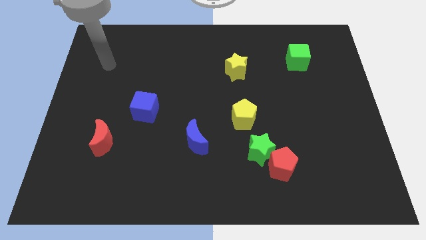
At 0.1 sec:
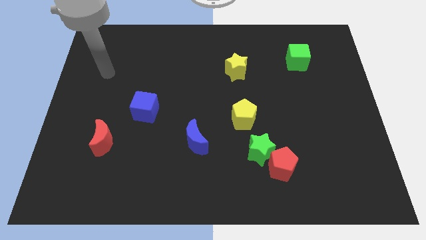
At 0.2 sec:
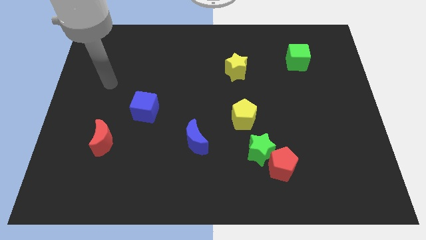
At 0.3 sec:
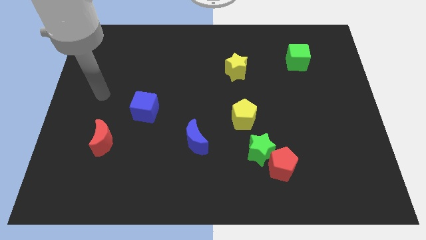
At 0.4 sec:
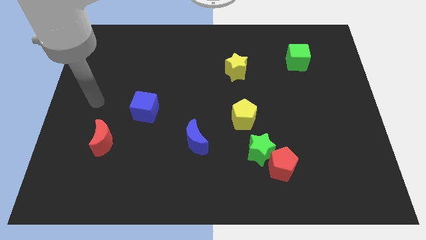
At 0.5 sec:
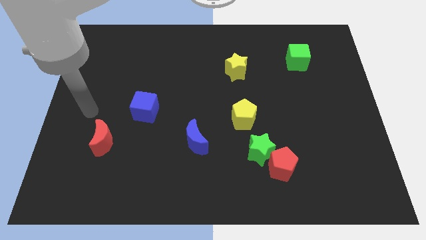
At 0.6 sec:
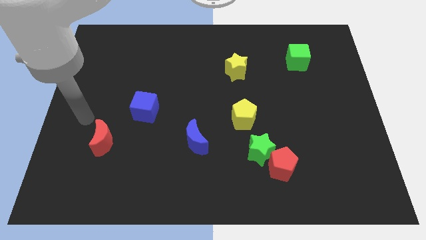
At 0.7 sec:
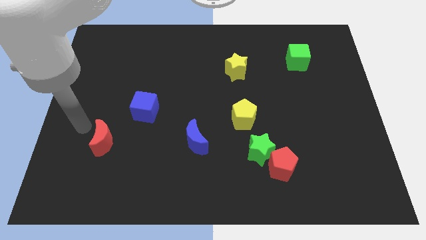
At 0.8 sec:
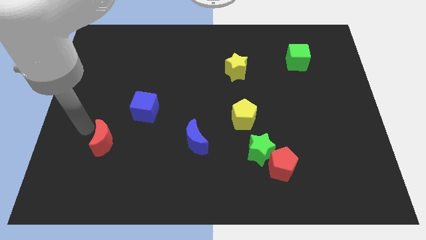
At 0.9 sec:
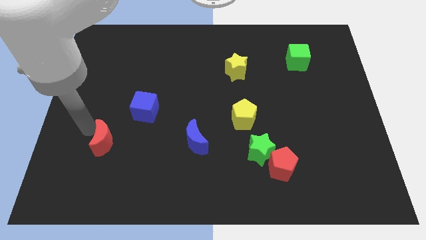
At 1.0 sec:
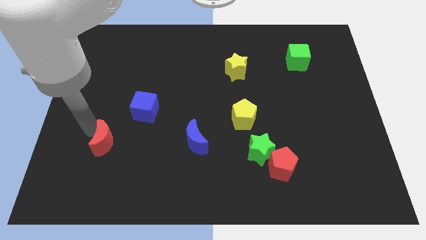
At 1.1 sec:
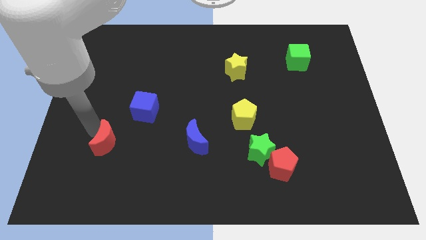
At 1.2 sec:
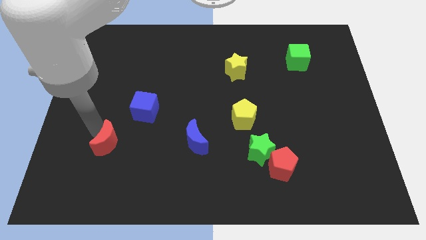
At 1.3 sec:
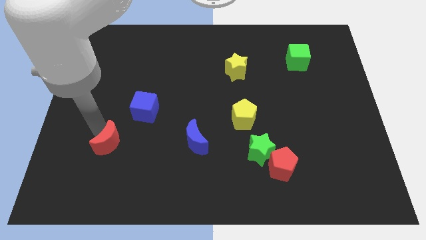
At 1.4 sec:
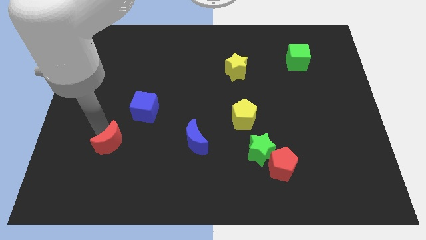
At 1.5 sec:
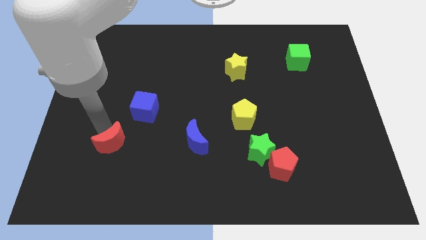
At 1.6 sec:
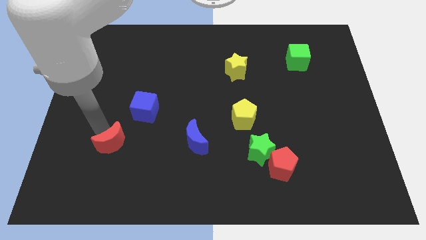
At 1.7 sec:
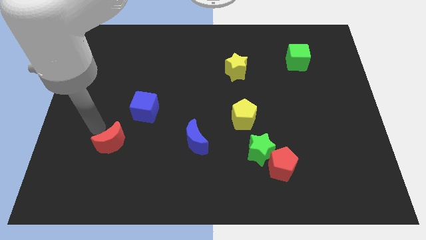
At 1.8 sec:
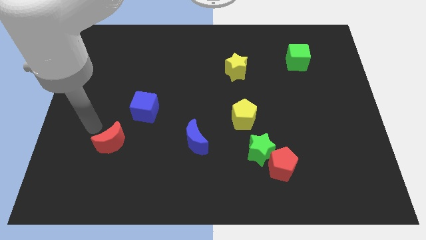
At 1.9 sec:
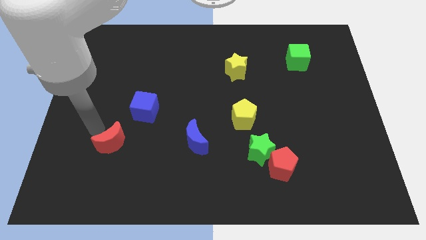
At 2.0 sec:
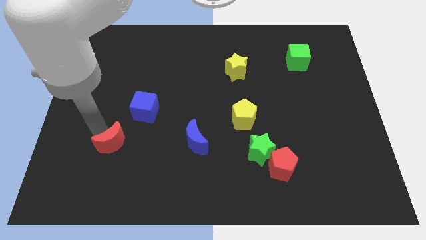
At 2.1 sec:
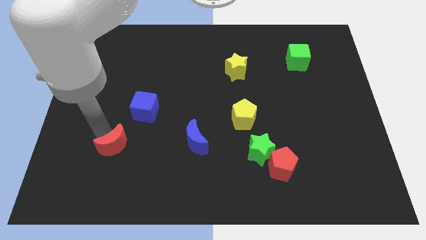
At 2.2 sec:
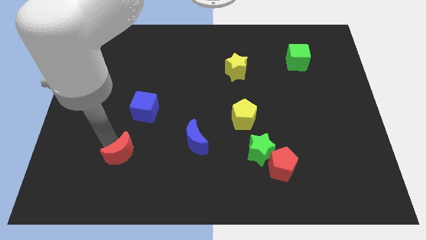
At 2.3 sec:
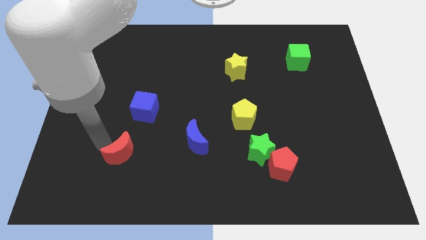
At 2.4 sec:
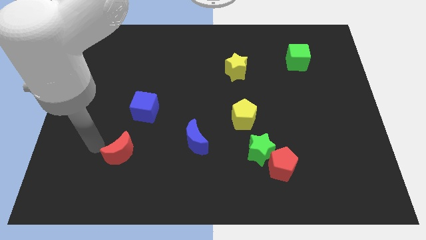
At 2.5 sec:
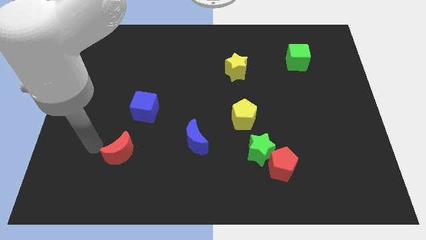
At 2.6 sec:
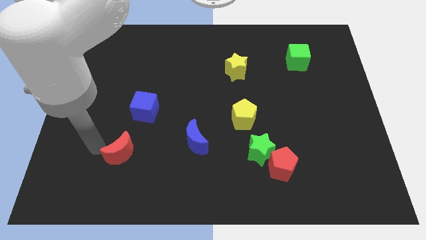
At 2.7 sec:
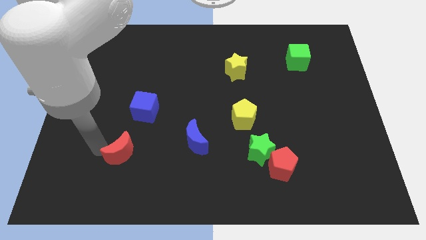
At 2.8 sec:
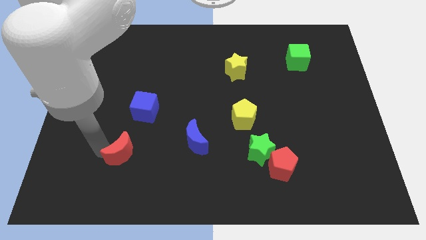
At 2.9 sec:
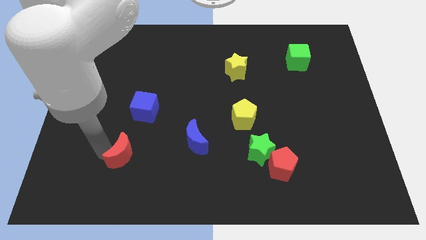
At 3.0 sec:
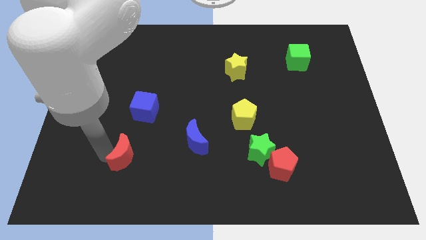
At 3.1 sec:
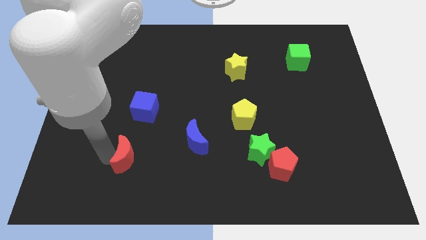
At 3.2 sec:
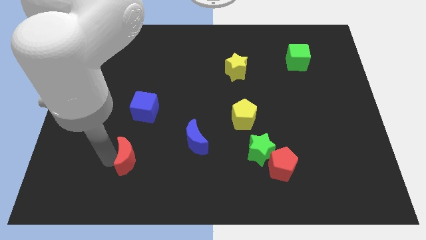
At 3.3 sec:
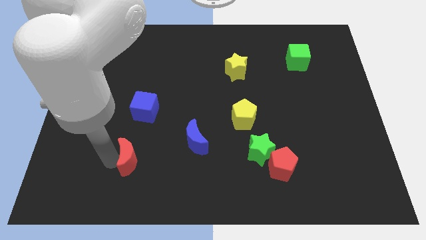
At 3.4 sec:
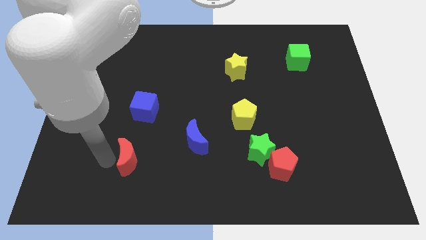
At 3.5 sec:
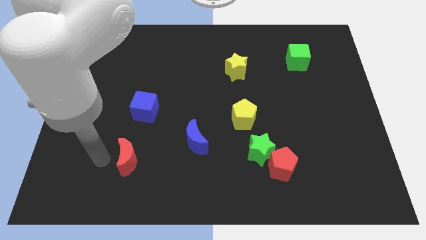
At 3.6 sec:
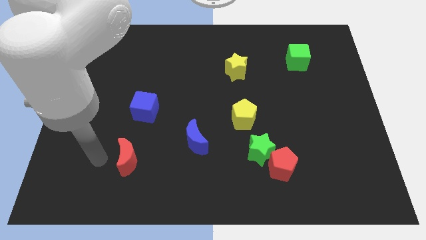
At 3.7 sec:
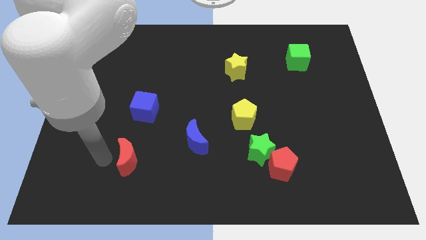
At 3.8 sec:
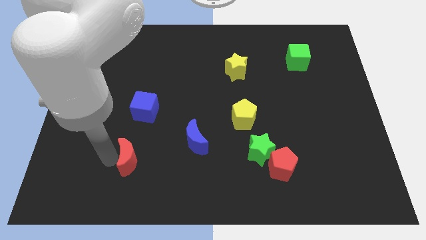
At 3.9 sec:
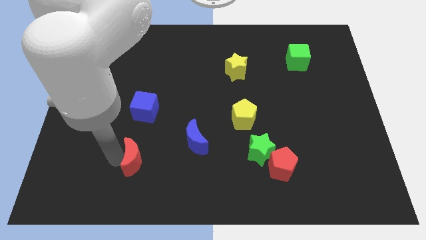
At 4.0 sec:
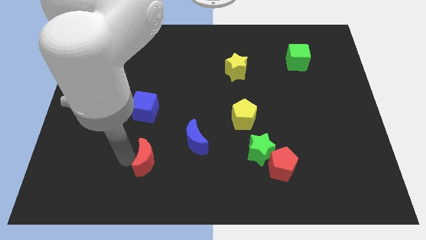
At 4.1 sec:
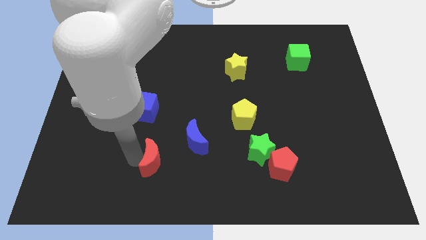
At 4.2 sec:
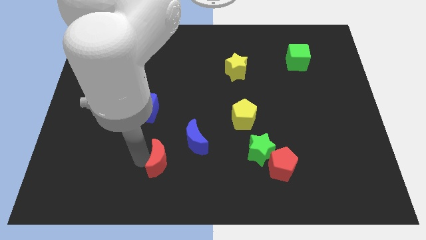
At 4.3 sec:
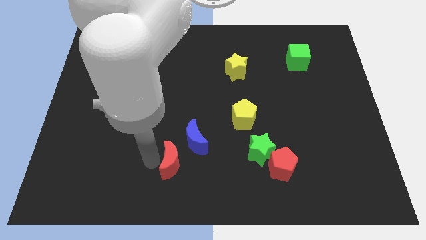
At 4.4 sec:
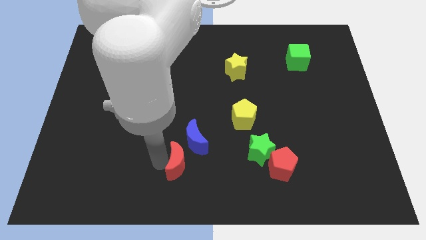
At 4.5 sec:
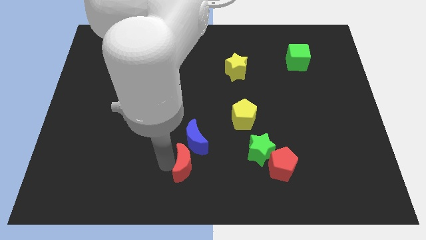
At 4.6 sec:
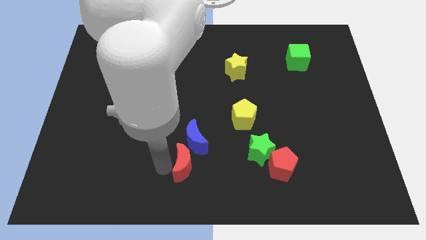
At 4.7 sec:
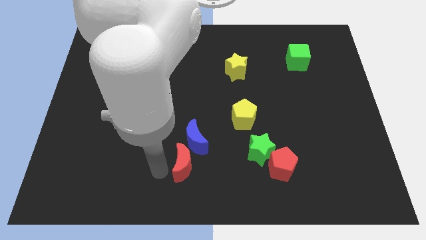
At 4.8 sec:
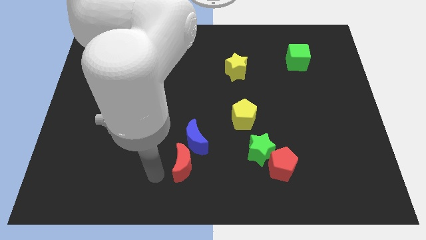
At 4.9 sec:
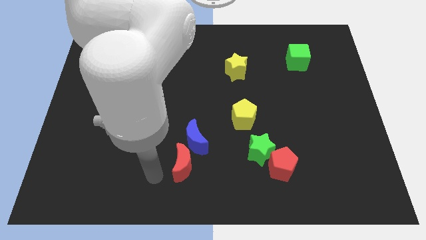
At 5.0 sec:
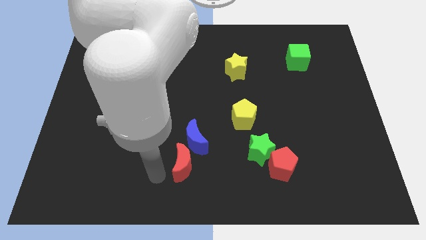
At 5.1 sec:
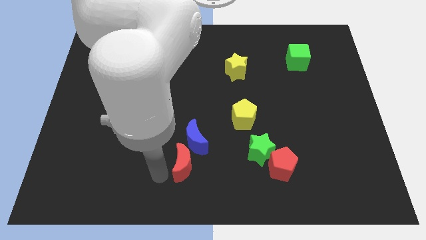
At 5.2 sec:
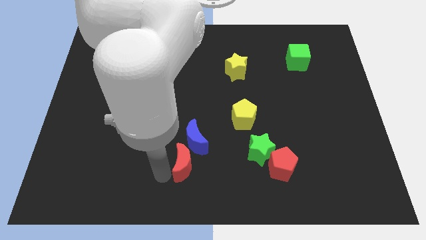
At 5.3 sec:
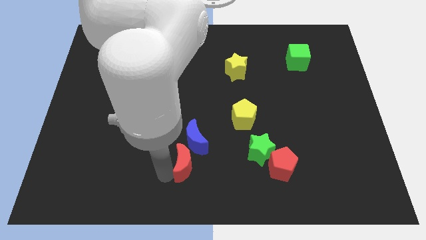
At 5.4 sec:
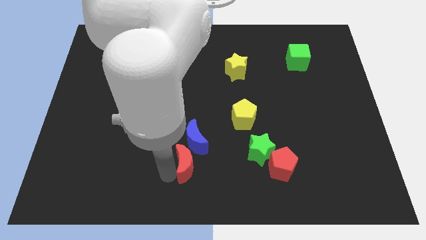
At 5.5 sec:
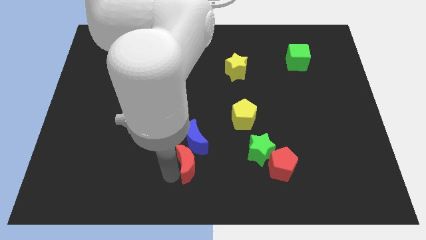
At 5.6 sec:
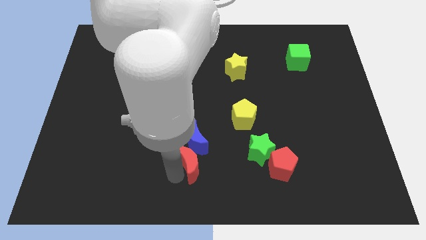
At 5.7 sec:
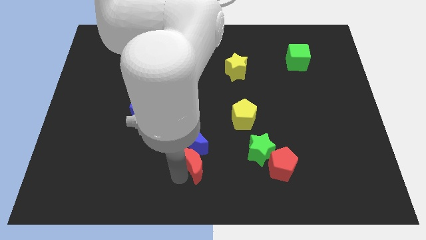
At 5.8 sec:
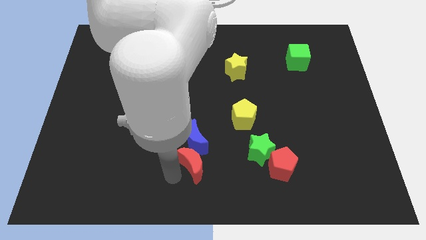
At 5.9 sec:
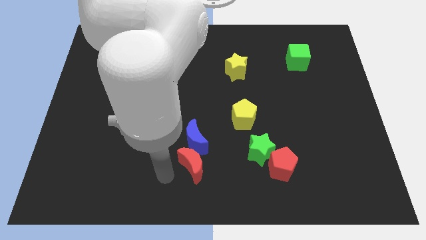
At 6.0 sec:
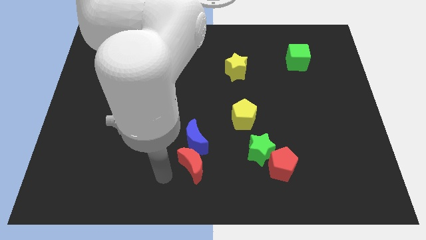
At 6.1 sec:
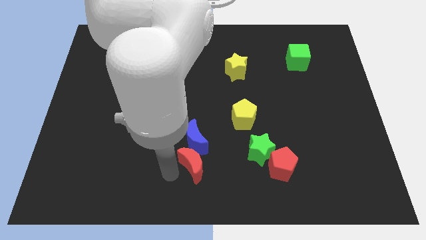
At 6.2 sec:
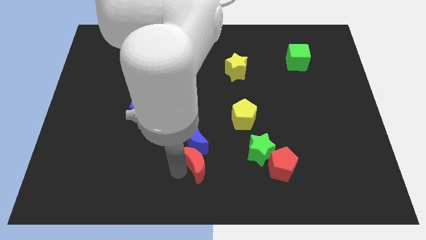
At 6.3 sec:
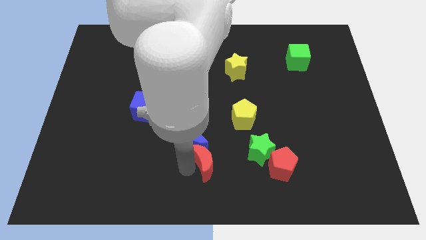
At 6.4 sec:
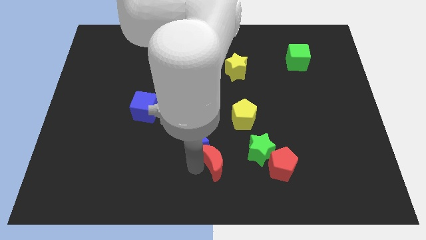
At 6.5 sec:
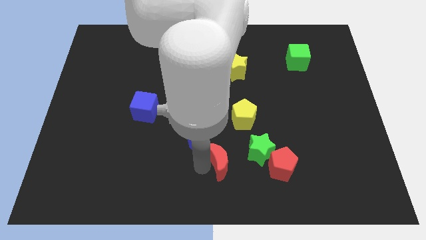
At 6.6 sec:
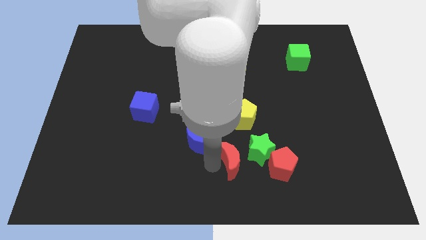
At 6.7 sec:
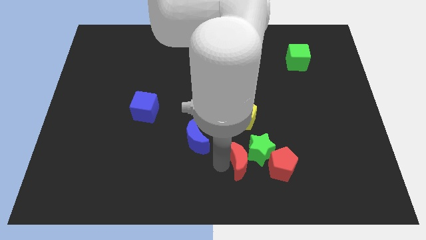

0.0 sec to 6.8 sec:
push the red moon to the green star

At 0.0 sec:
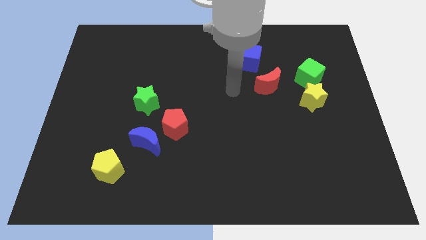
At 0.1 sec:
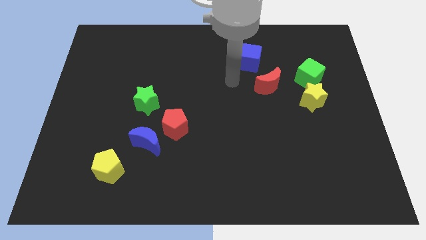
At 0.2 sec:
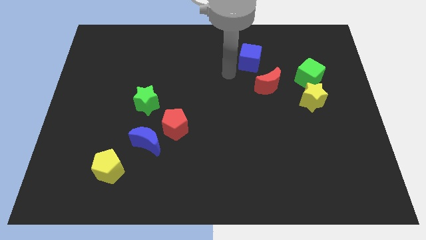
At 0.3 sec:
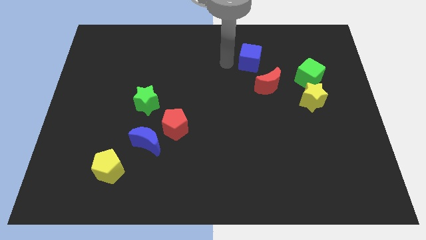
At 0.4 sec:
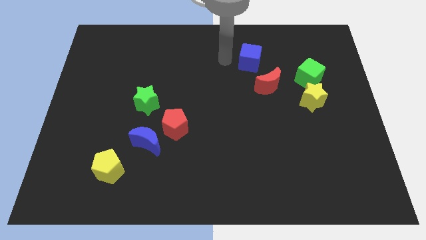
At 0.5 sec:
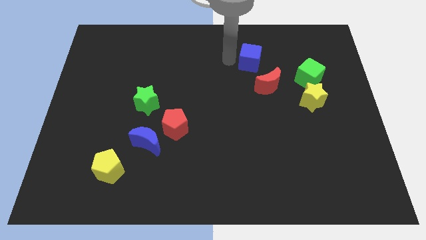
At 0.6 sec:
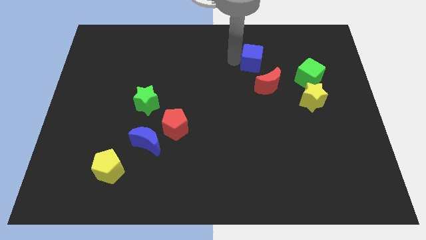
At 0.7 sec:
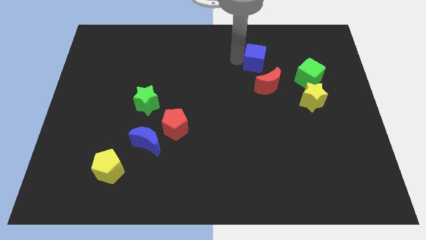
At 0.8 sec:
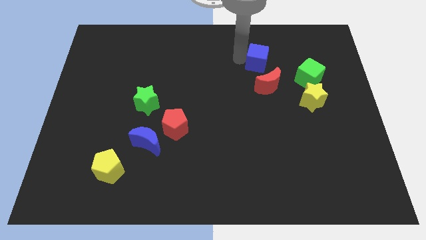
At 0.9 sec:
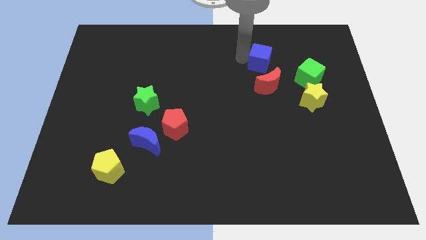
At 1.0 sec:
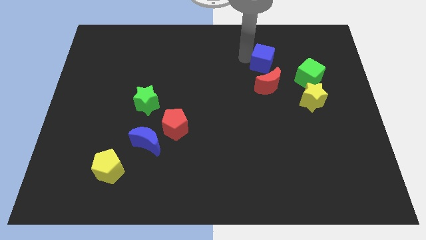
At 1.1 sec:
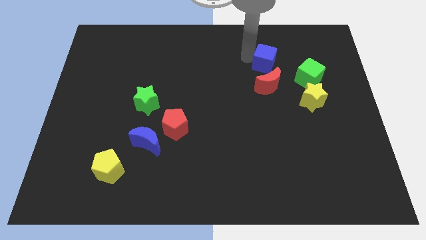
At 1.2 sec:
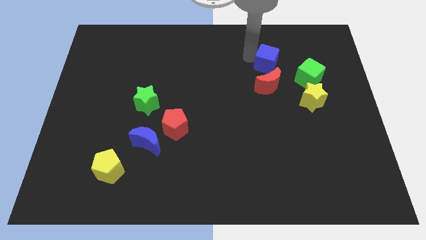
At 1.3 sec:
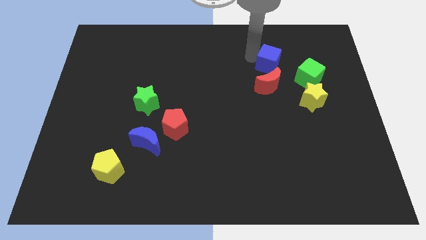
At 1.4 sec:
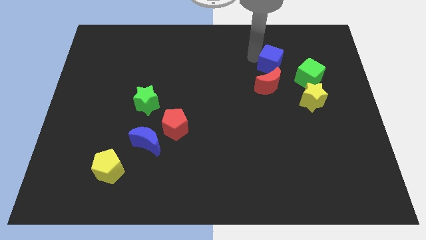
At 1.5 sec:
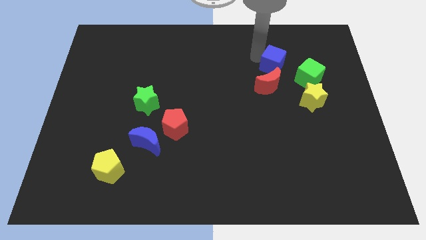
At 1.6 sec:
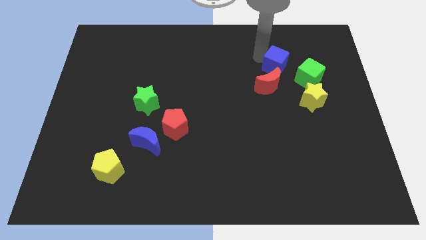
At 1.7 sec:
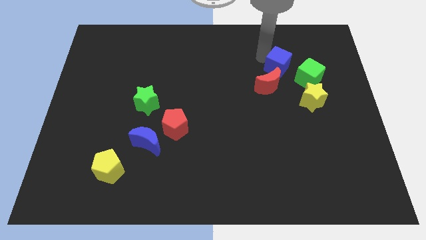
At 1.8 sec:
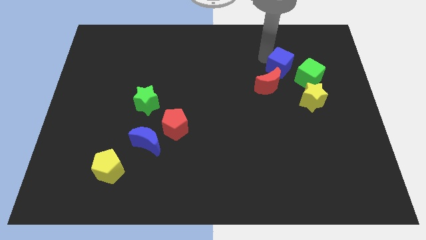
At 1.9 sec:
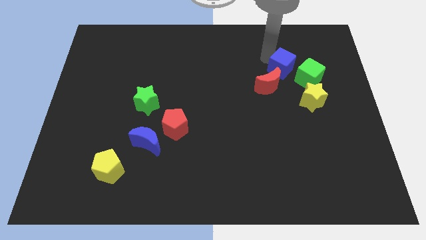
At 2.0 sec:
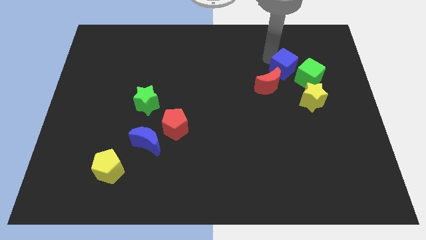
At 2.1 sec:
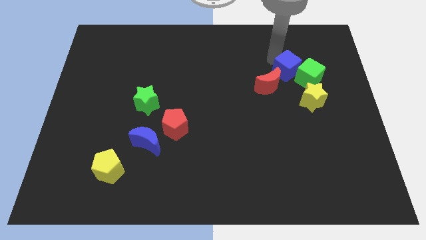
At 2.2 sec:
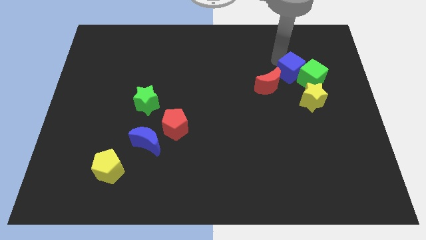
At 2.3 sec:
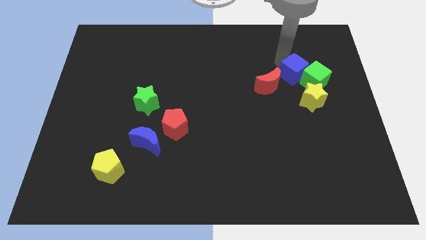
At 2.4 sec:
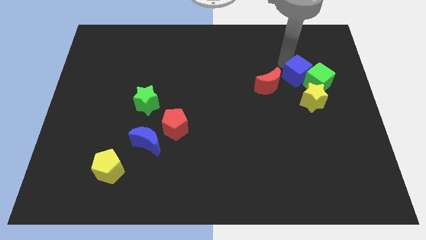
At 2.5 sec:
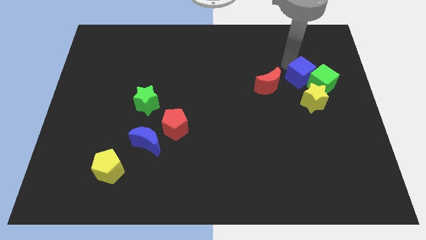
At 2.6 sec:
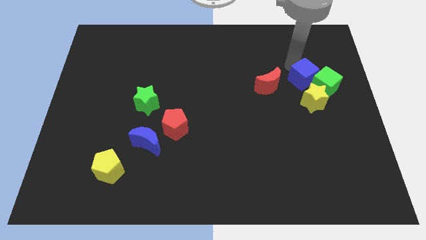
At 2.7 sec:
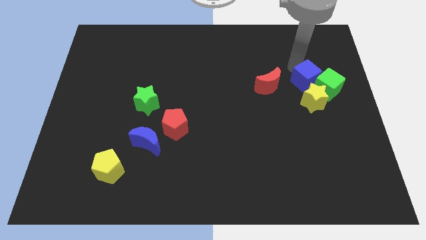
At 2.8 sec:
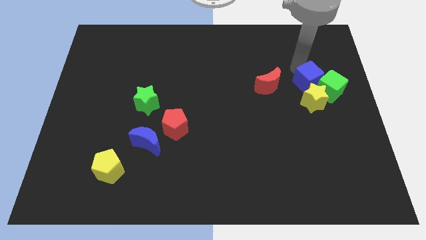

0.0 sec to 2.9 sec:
put the blue cube to the yellow star
